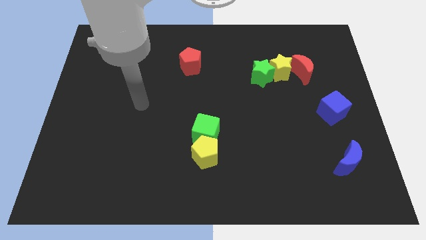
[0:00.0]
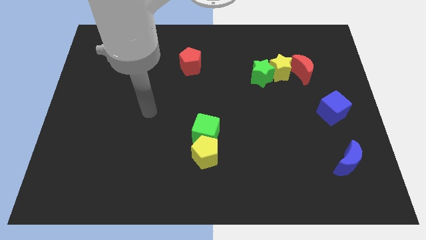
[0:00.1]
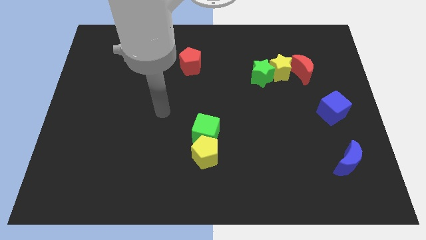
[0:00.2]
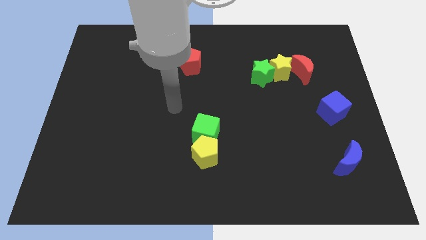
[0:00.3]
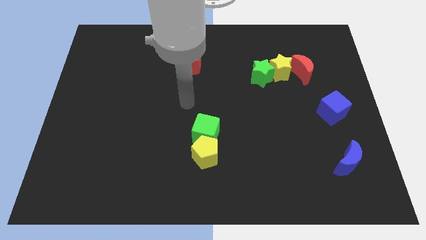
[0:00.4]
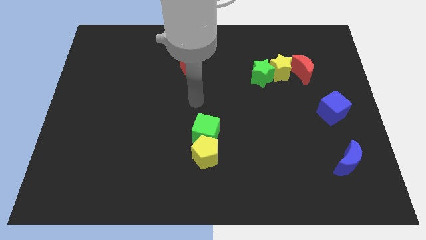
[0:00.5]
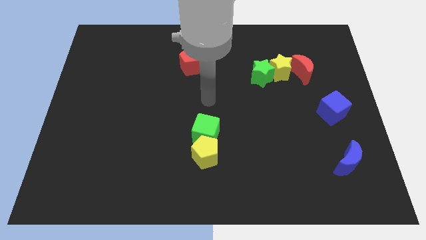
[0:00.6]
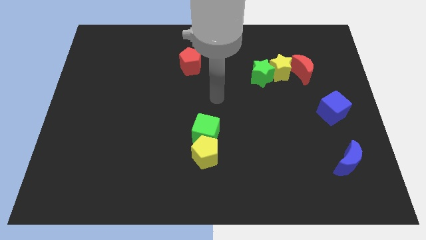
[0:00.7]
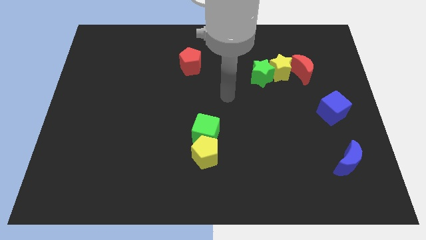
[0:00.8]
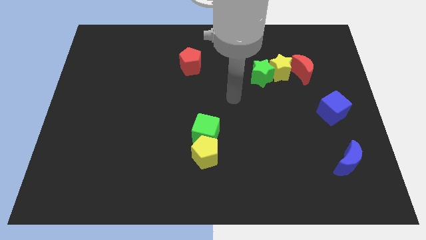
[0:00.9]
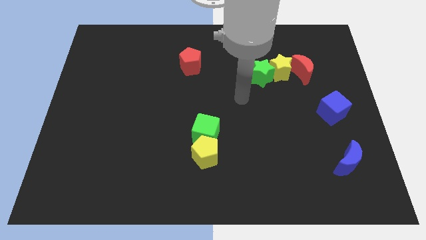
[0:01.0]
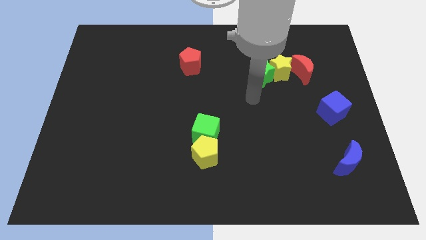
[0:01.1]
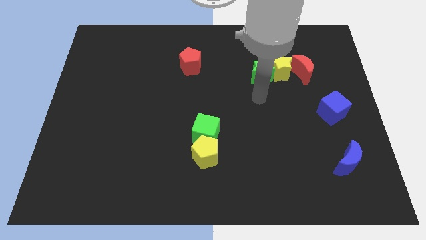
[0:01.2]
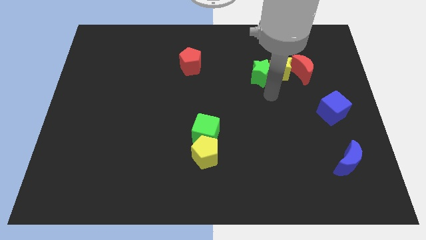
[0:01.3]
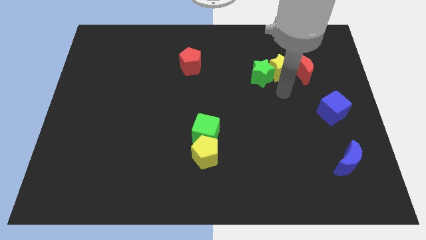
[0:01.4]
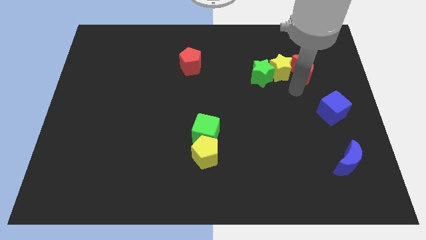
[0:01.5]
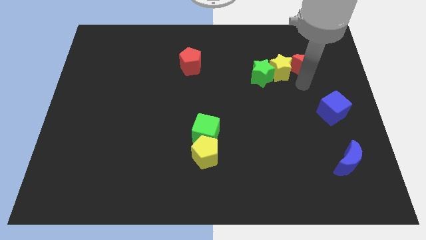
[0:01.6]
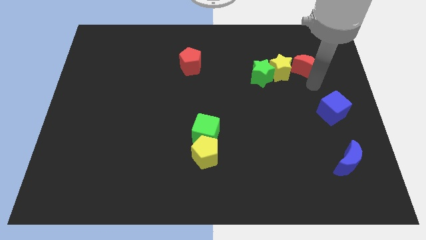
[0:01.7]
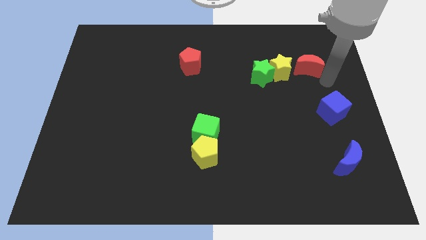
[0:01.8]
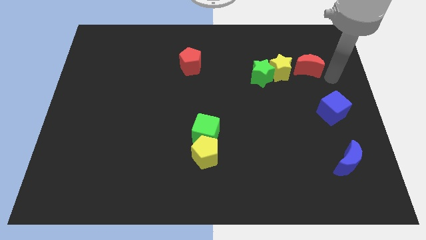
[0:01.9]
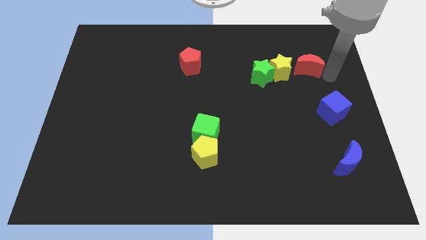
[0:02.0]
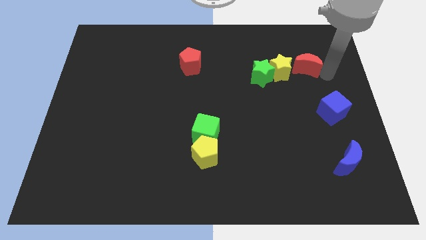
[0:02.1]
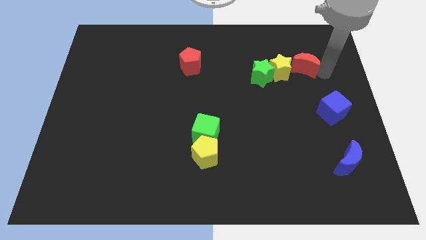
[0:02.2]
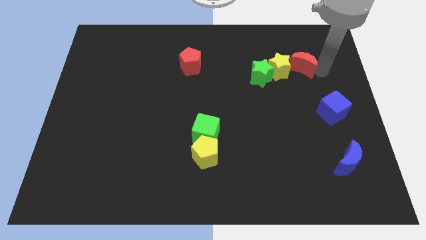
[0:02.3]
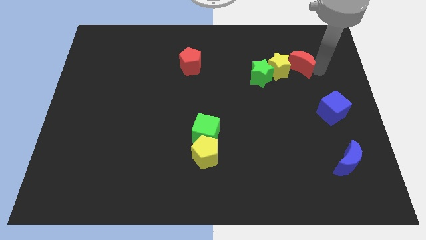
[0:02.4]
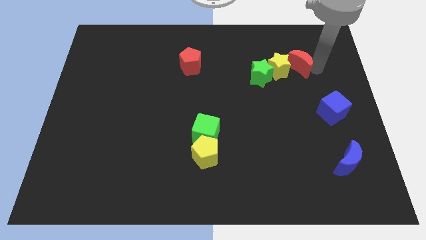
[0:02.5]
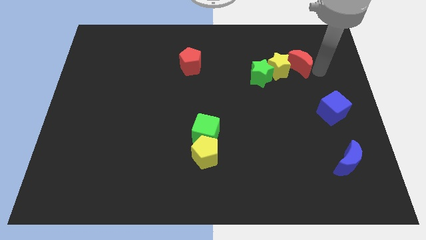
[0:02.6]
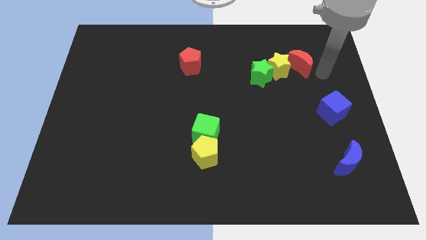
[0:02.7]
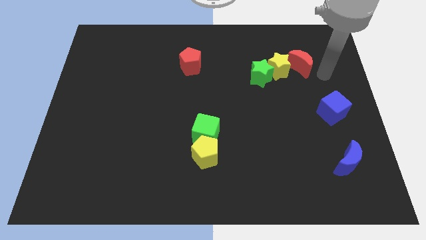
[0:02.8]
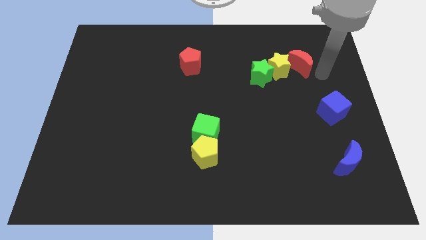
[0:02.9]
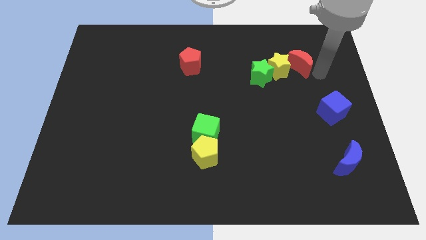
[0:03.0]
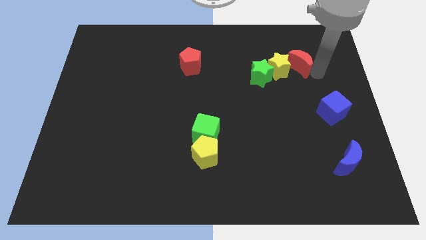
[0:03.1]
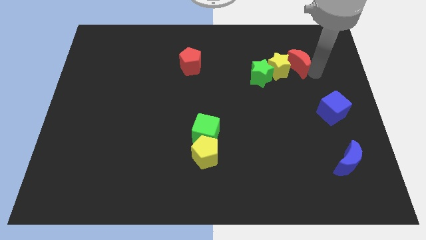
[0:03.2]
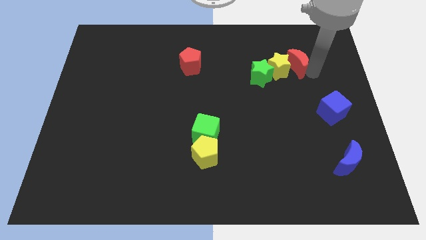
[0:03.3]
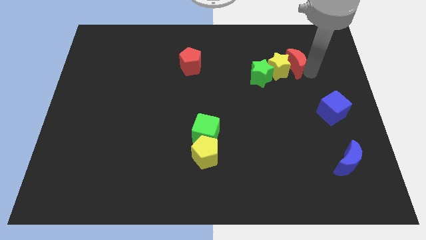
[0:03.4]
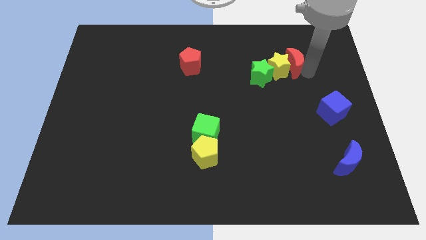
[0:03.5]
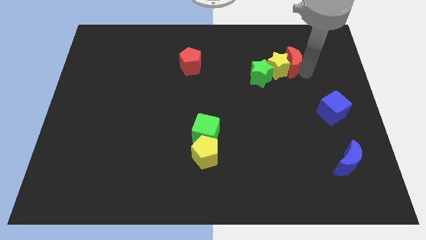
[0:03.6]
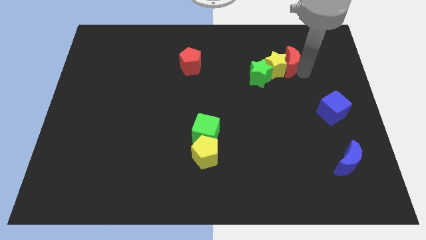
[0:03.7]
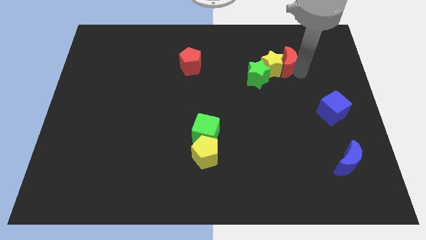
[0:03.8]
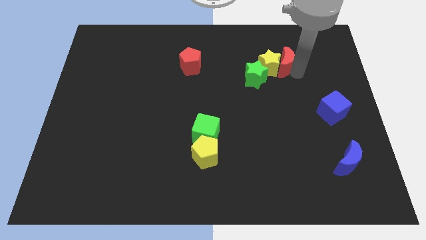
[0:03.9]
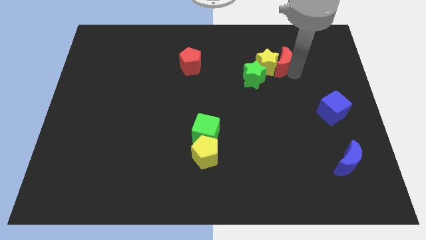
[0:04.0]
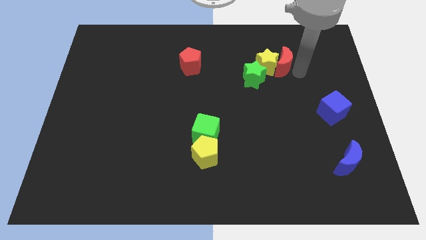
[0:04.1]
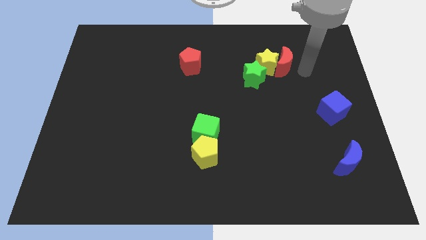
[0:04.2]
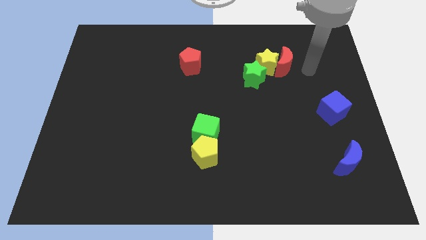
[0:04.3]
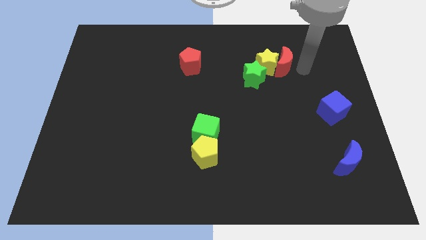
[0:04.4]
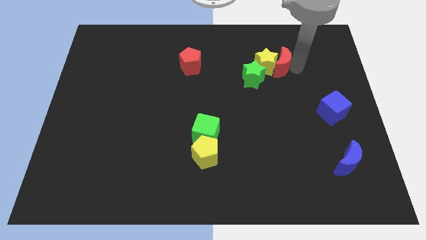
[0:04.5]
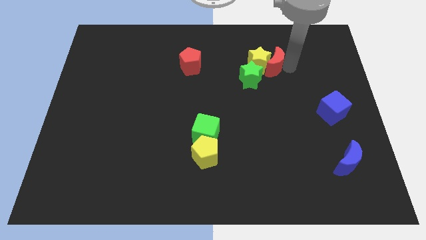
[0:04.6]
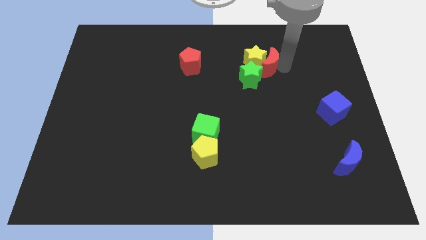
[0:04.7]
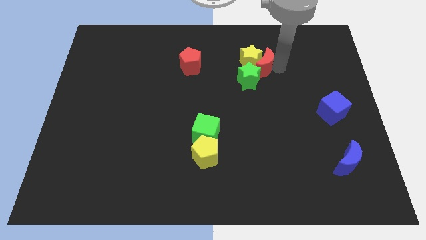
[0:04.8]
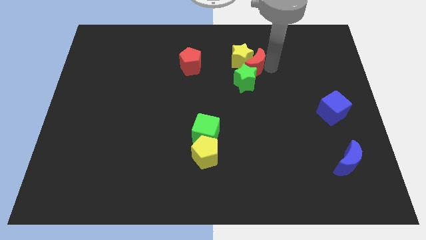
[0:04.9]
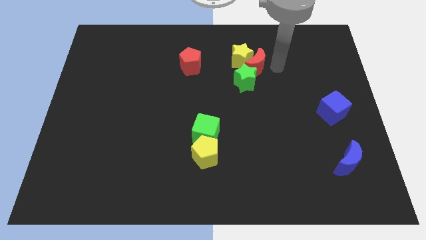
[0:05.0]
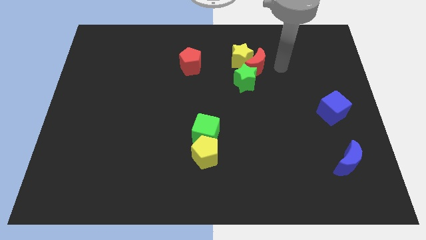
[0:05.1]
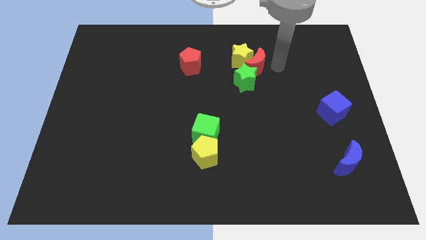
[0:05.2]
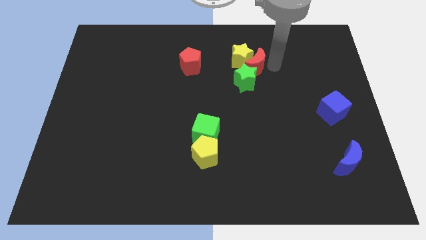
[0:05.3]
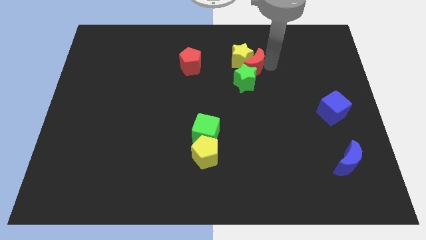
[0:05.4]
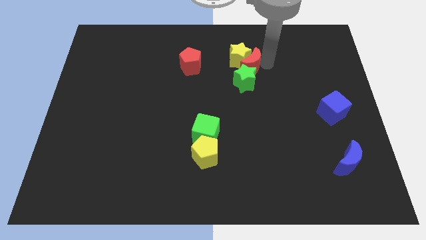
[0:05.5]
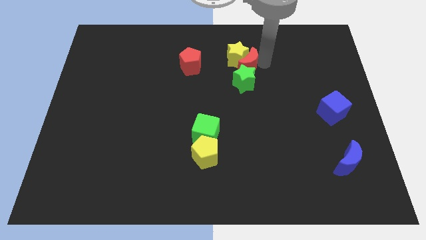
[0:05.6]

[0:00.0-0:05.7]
slide the red moon diagonally up and to the left of the green star

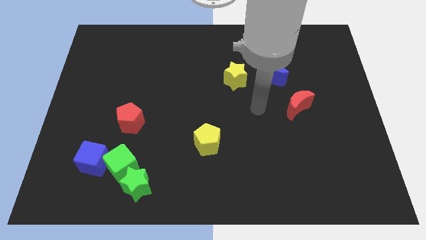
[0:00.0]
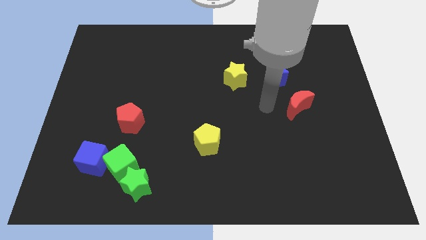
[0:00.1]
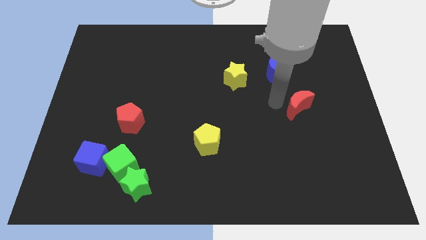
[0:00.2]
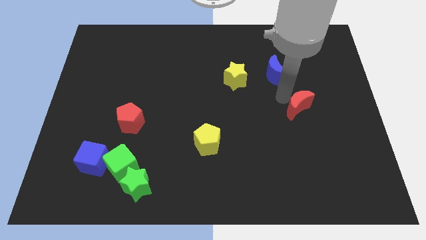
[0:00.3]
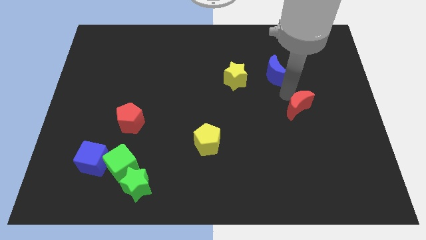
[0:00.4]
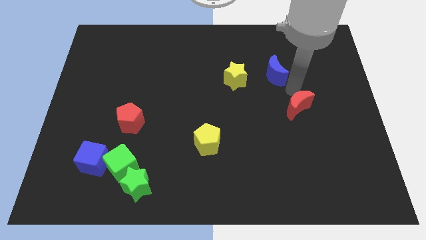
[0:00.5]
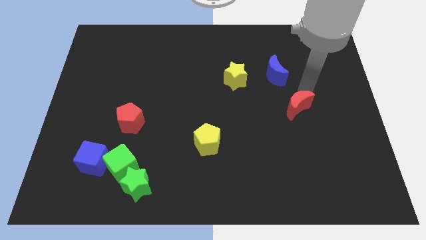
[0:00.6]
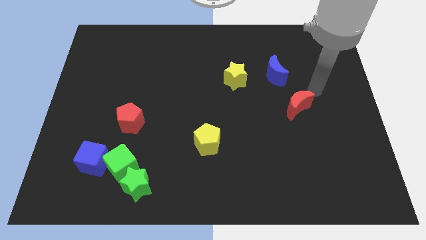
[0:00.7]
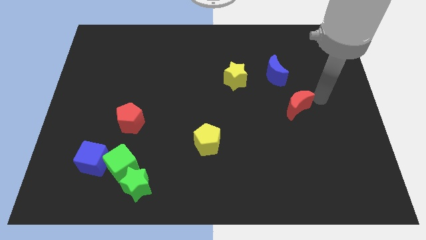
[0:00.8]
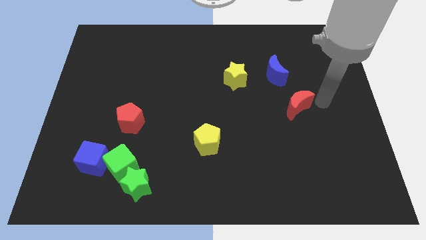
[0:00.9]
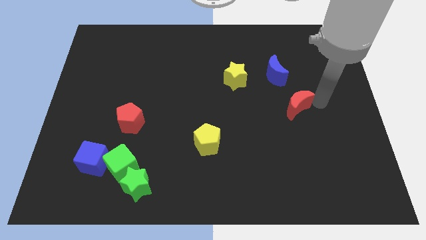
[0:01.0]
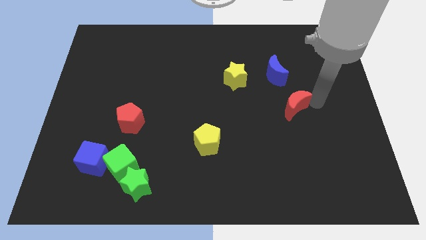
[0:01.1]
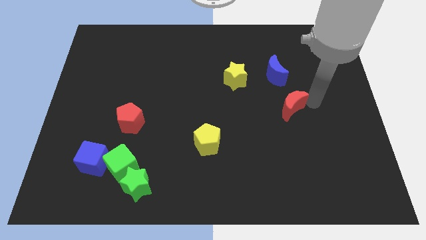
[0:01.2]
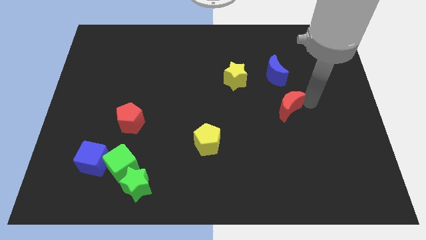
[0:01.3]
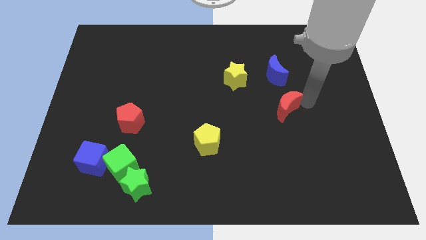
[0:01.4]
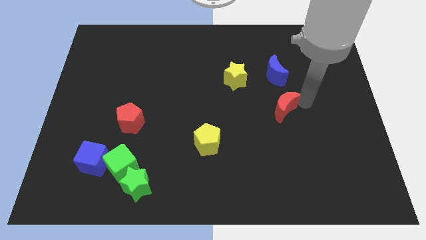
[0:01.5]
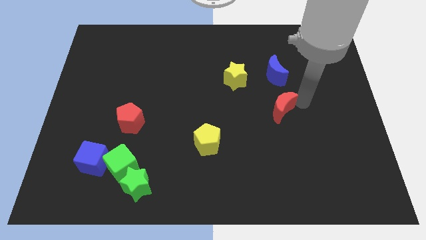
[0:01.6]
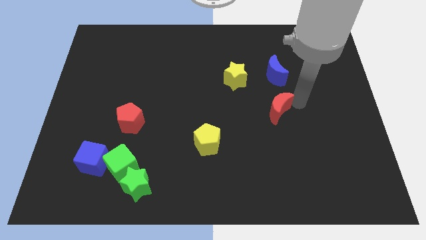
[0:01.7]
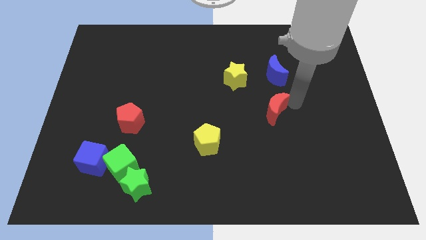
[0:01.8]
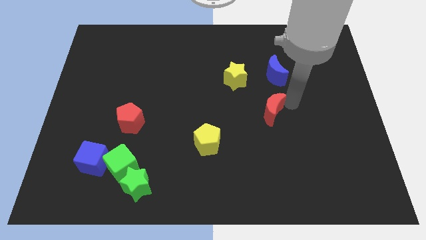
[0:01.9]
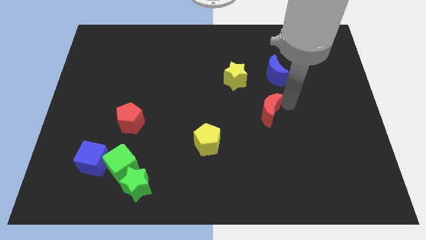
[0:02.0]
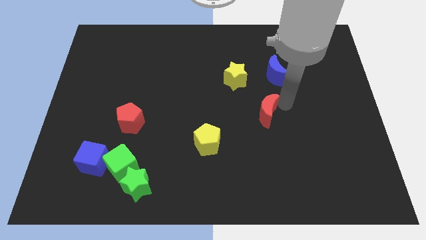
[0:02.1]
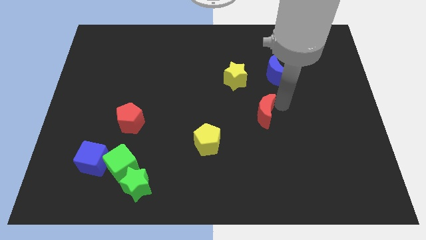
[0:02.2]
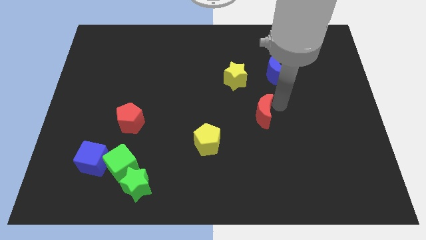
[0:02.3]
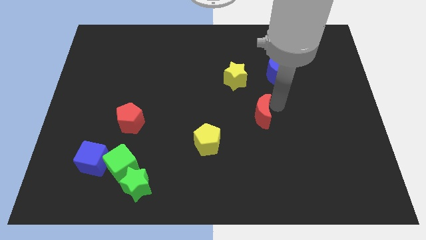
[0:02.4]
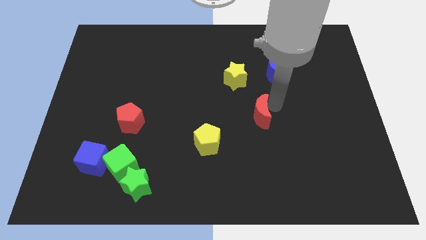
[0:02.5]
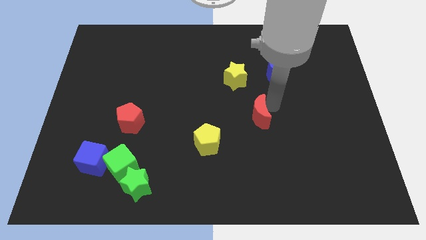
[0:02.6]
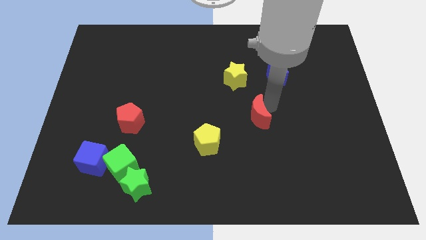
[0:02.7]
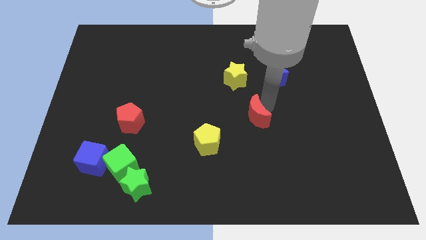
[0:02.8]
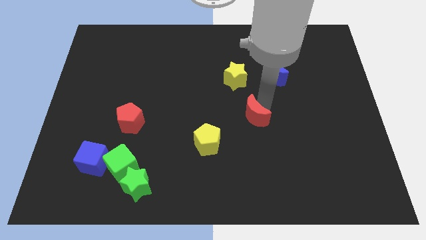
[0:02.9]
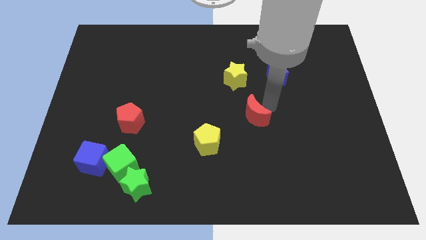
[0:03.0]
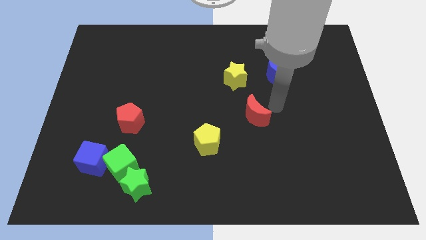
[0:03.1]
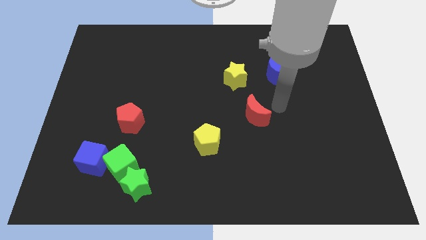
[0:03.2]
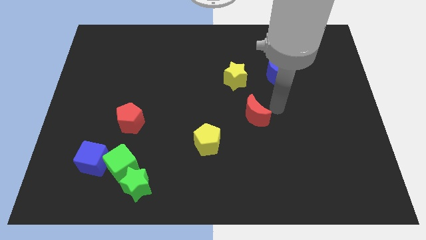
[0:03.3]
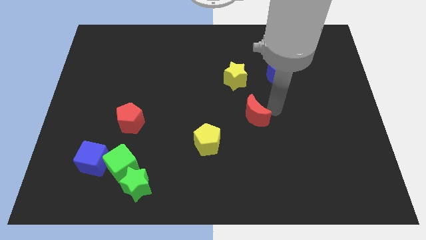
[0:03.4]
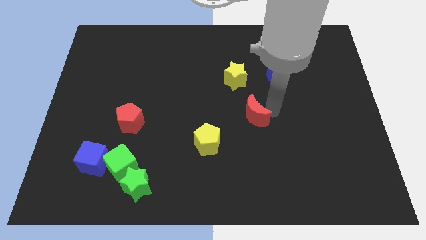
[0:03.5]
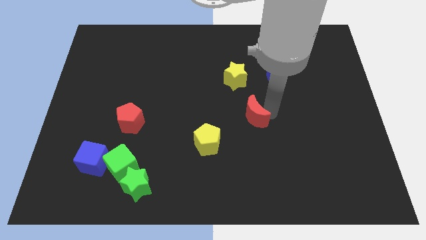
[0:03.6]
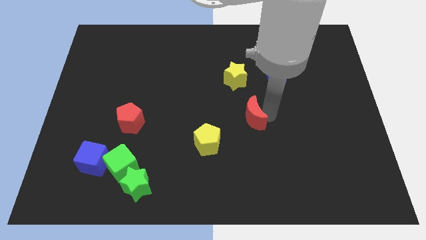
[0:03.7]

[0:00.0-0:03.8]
move the red moon to the top right of the yellow pentagon
